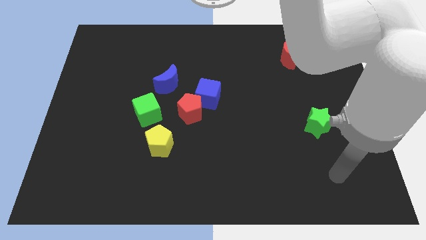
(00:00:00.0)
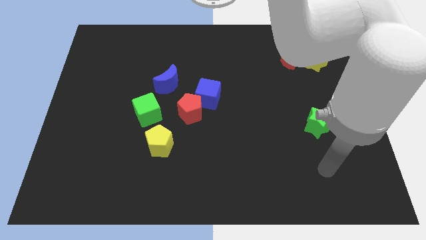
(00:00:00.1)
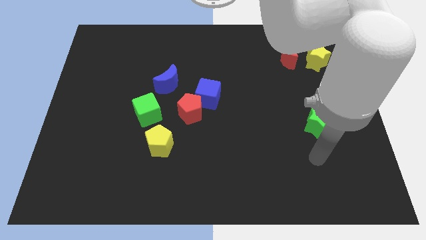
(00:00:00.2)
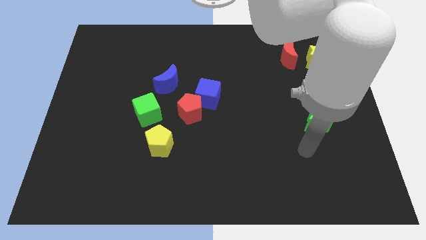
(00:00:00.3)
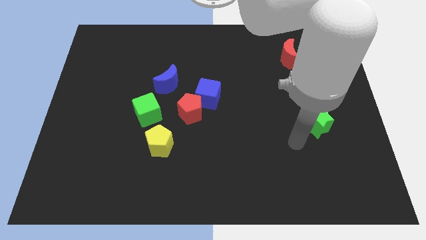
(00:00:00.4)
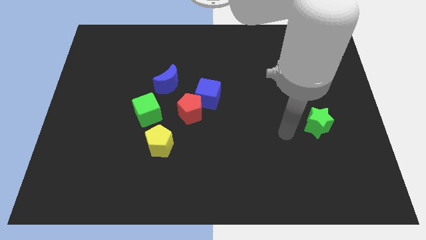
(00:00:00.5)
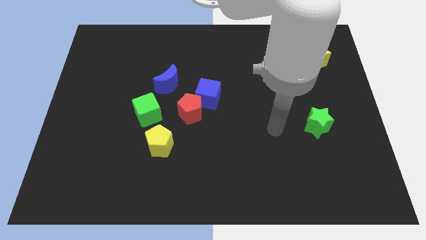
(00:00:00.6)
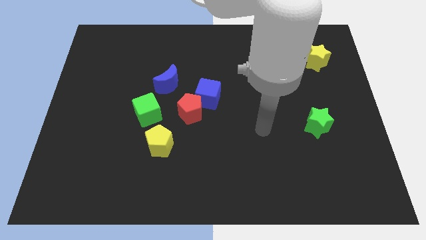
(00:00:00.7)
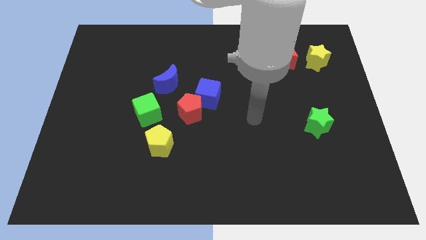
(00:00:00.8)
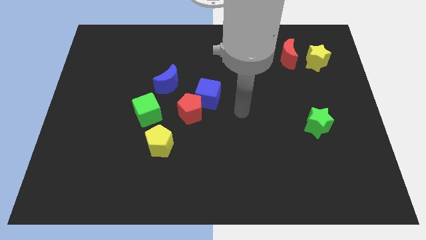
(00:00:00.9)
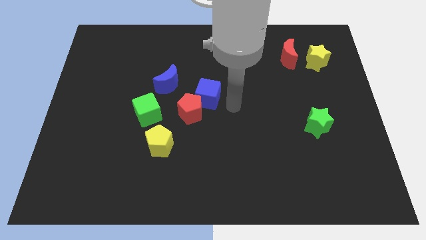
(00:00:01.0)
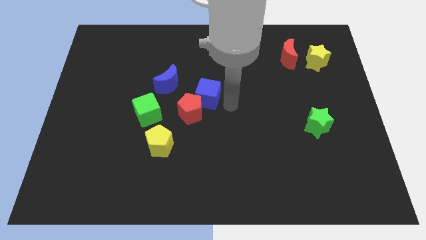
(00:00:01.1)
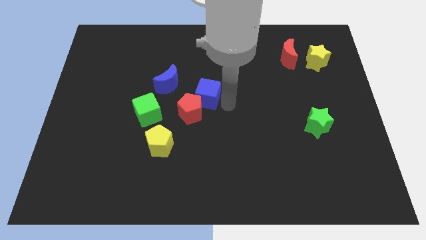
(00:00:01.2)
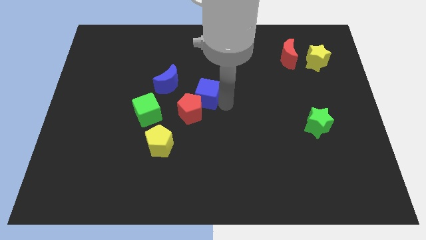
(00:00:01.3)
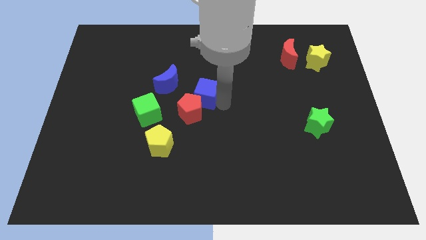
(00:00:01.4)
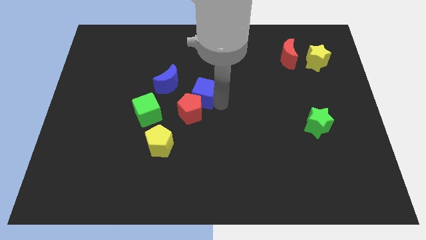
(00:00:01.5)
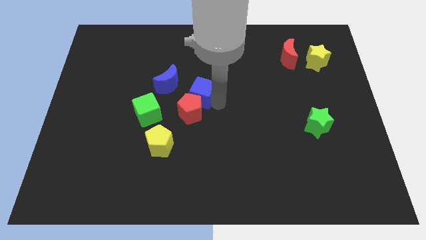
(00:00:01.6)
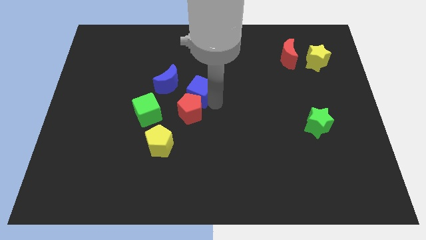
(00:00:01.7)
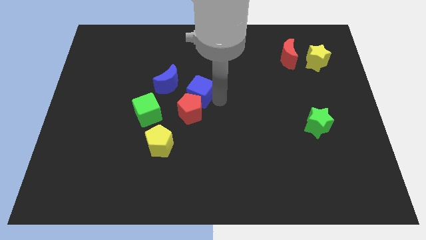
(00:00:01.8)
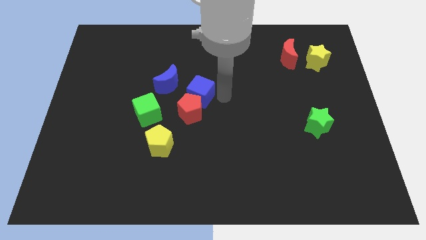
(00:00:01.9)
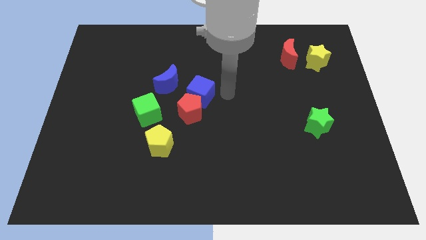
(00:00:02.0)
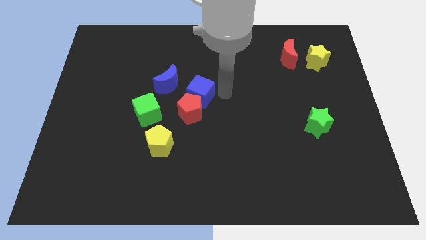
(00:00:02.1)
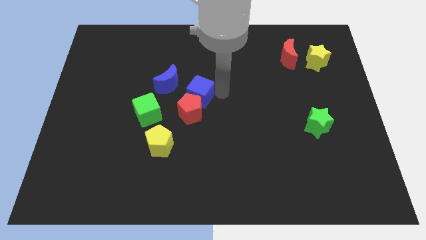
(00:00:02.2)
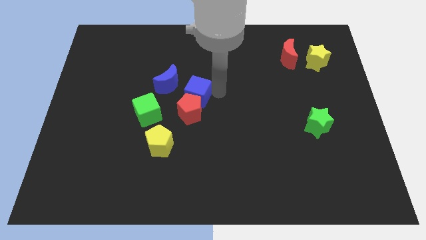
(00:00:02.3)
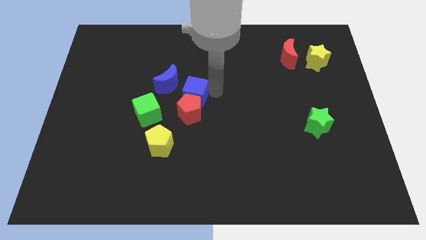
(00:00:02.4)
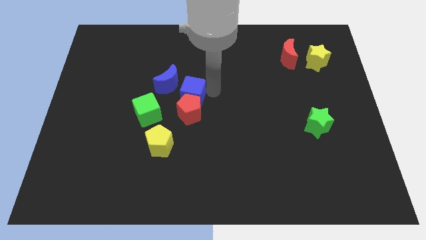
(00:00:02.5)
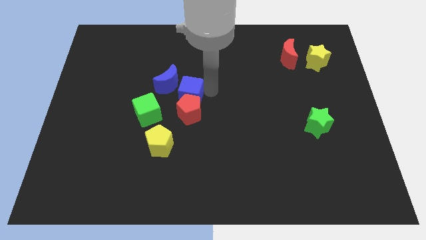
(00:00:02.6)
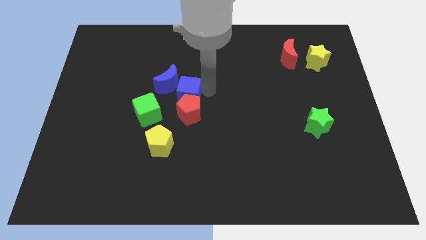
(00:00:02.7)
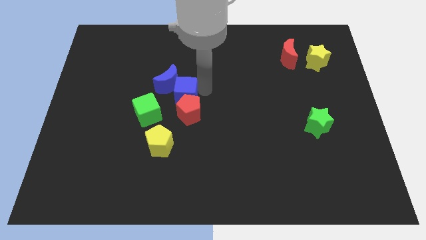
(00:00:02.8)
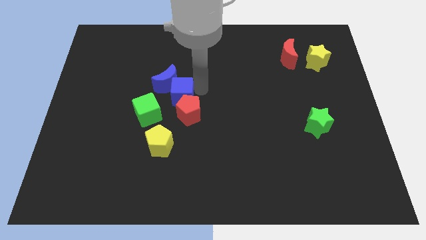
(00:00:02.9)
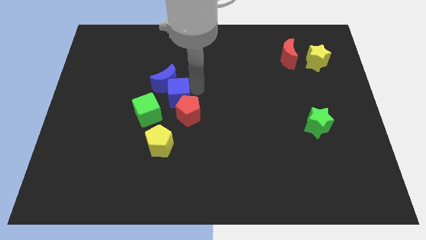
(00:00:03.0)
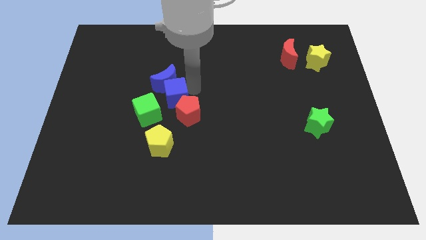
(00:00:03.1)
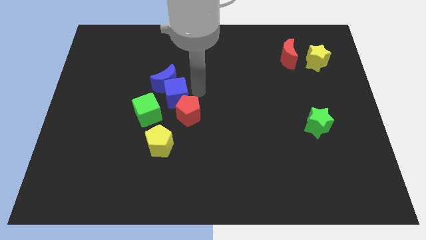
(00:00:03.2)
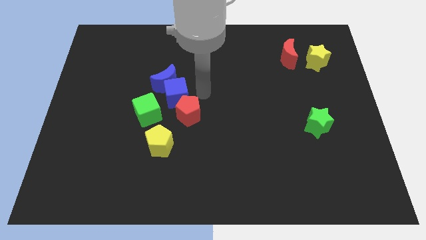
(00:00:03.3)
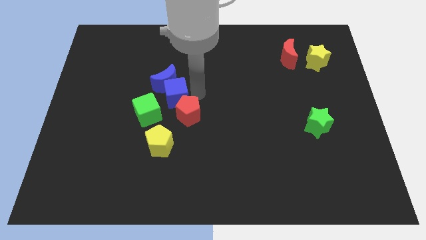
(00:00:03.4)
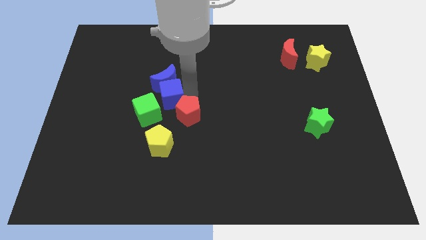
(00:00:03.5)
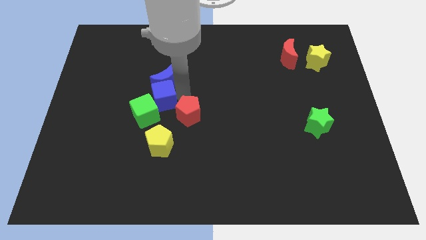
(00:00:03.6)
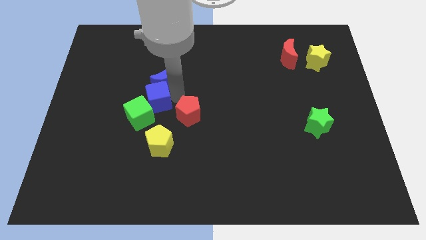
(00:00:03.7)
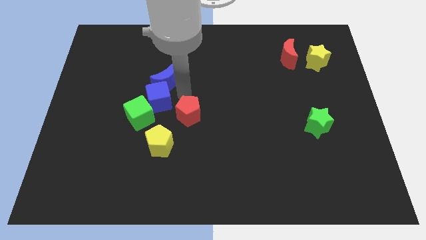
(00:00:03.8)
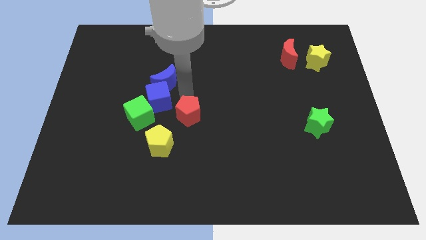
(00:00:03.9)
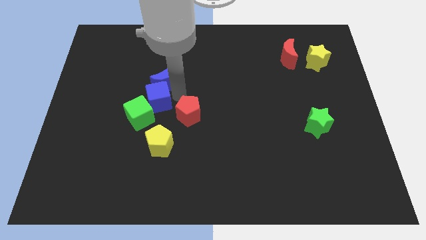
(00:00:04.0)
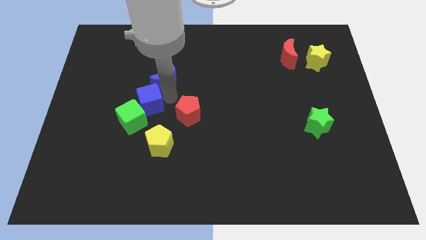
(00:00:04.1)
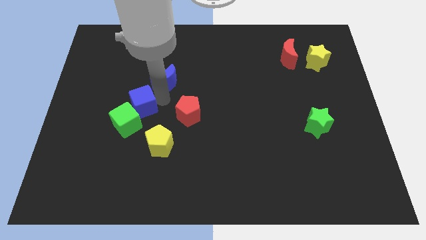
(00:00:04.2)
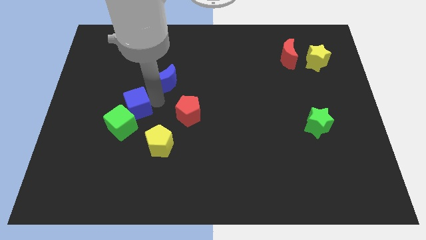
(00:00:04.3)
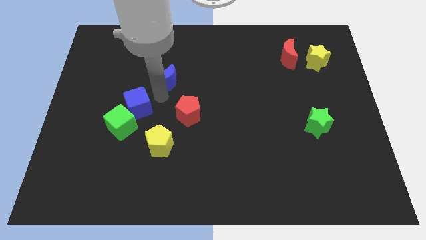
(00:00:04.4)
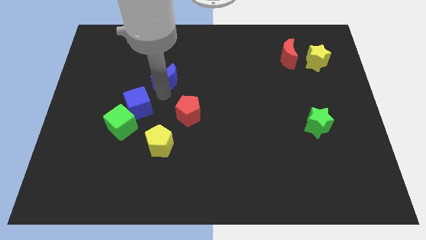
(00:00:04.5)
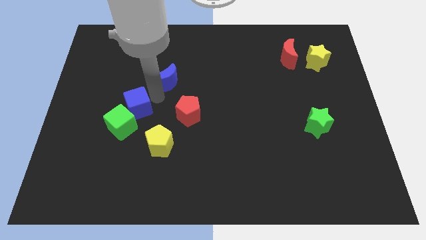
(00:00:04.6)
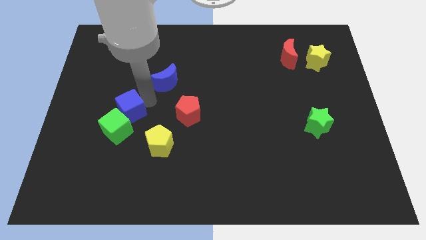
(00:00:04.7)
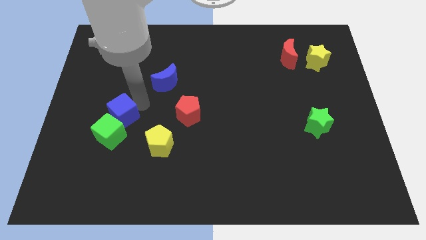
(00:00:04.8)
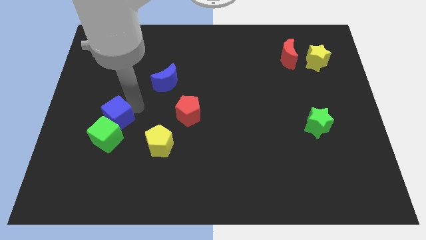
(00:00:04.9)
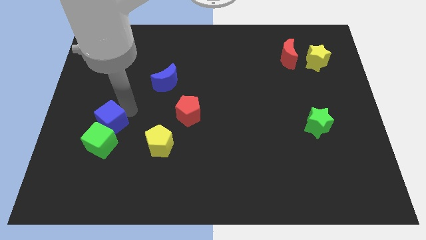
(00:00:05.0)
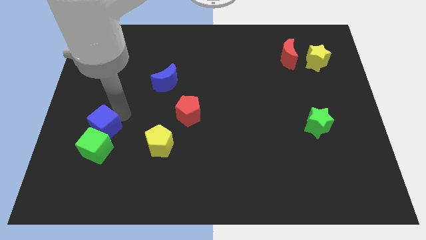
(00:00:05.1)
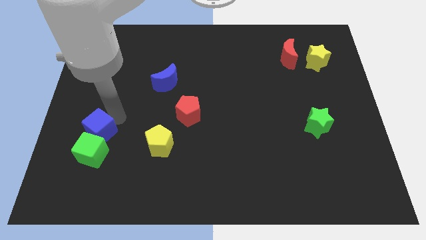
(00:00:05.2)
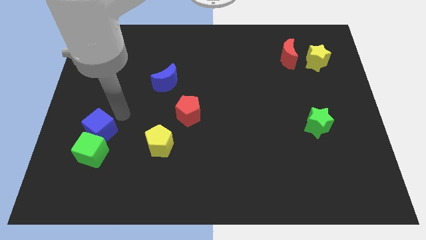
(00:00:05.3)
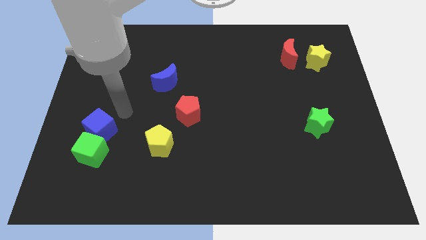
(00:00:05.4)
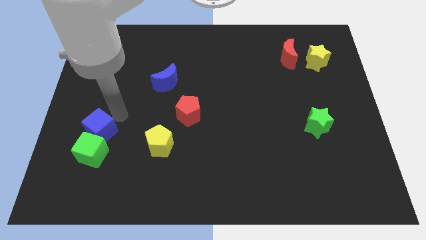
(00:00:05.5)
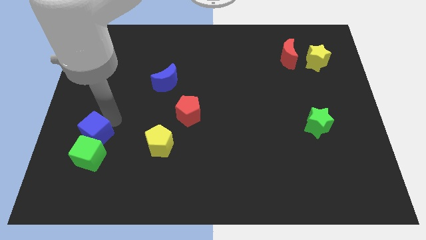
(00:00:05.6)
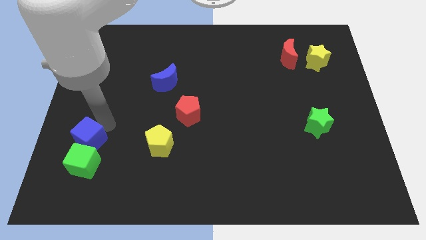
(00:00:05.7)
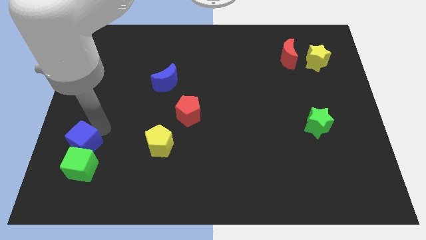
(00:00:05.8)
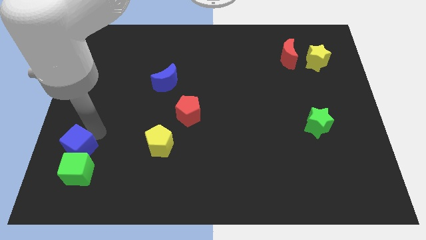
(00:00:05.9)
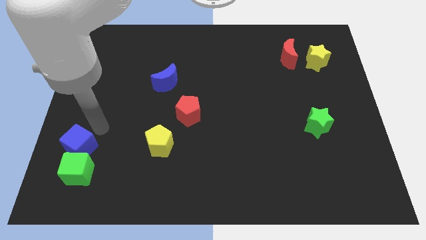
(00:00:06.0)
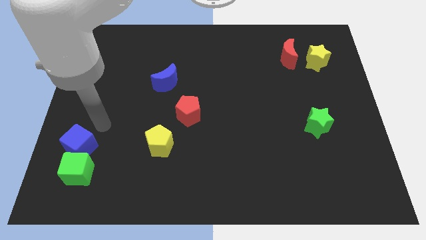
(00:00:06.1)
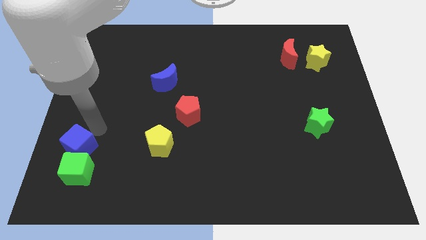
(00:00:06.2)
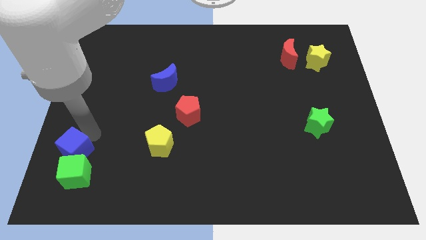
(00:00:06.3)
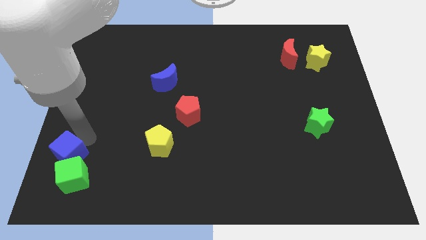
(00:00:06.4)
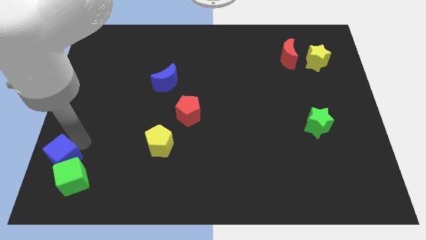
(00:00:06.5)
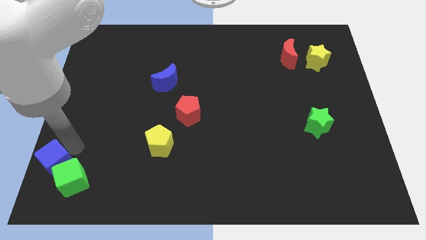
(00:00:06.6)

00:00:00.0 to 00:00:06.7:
move the blue cube to the bottom left corner

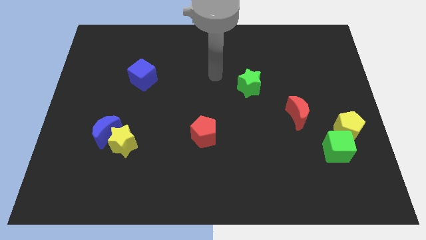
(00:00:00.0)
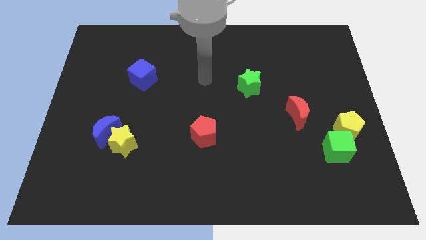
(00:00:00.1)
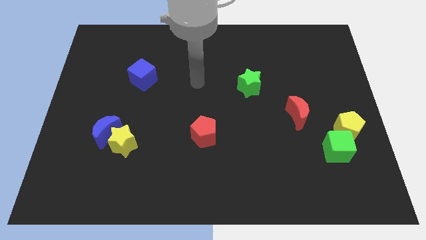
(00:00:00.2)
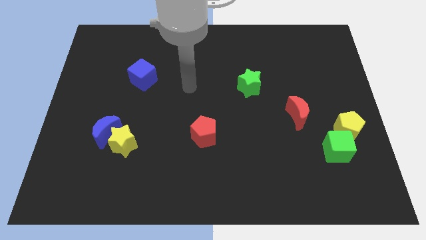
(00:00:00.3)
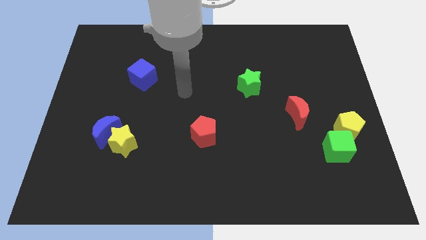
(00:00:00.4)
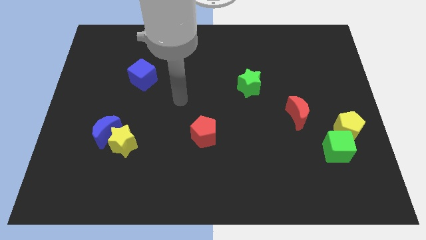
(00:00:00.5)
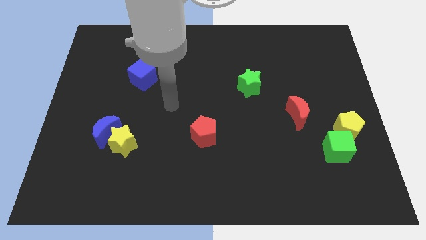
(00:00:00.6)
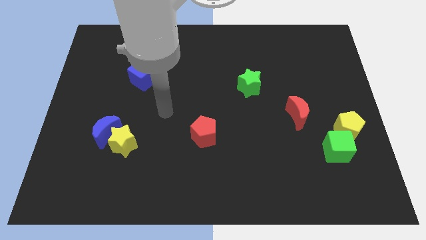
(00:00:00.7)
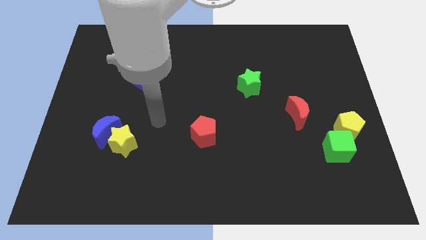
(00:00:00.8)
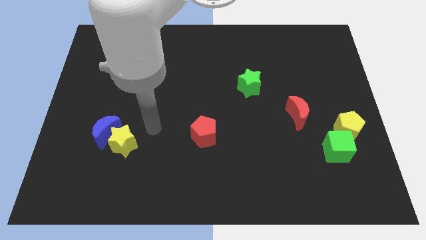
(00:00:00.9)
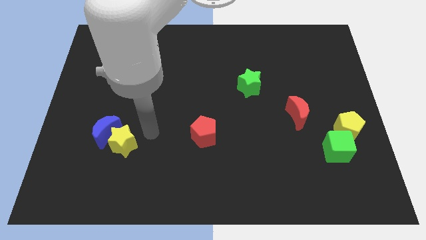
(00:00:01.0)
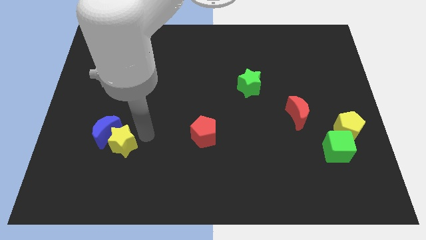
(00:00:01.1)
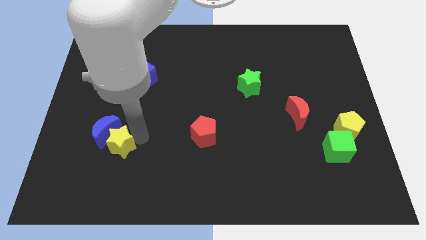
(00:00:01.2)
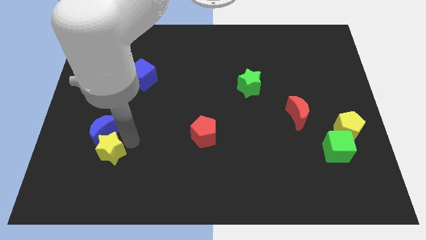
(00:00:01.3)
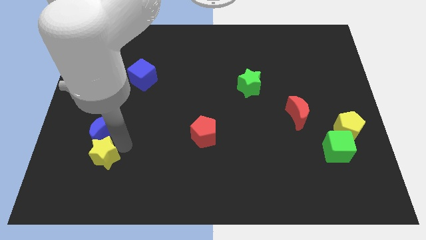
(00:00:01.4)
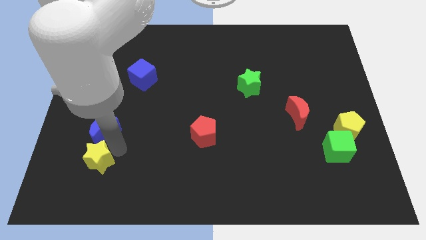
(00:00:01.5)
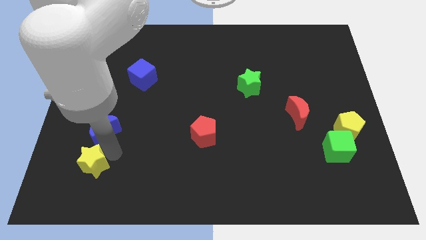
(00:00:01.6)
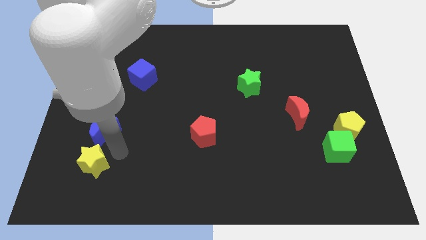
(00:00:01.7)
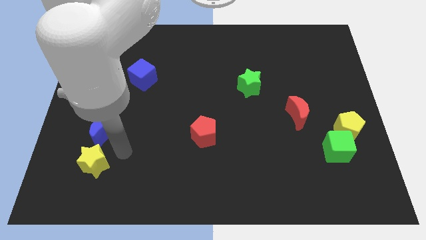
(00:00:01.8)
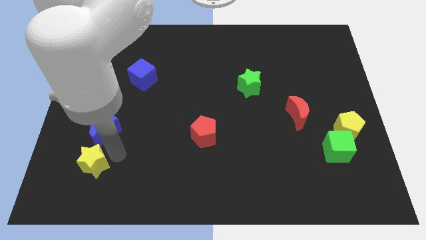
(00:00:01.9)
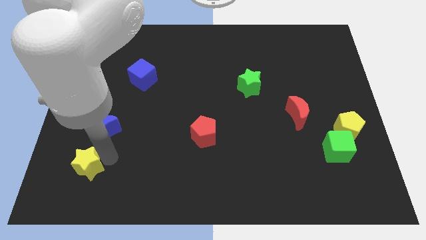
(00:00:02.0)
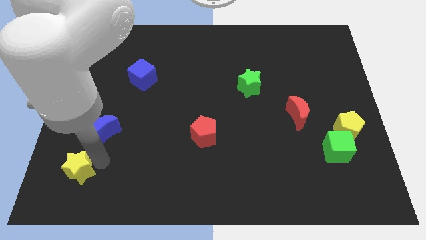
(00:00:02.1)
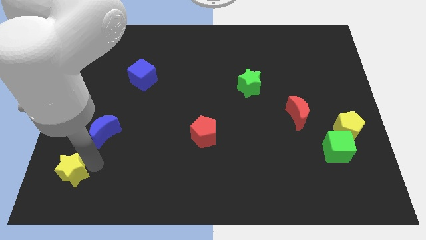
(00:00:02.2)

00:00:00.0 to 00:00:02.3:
put the yellow star to the bottom left
